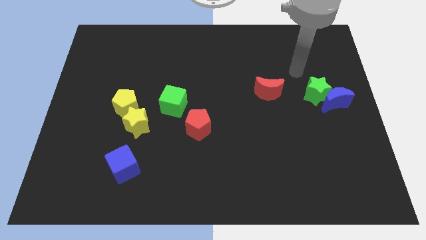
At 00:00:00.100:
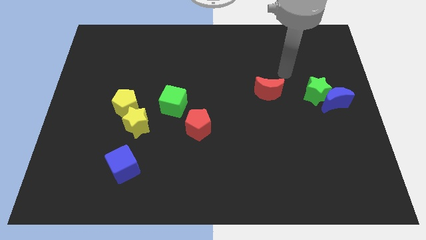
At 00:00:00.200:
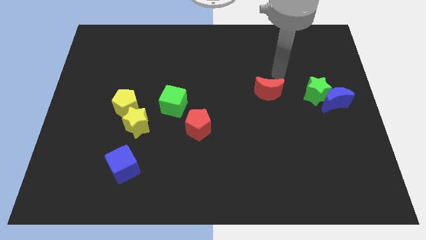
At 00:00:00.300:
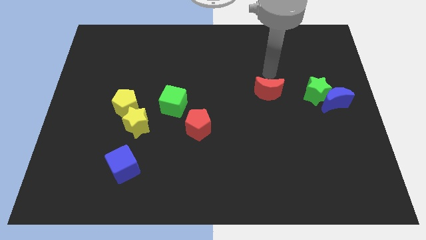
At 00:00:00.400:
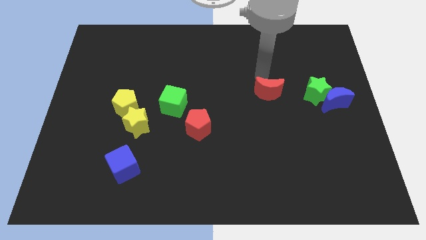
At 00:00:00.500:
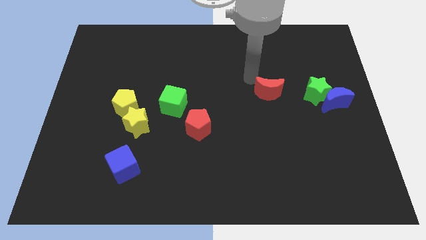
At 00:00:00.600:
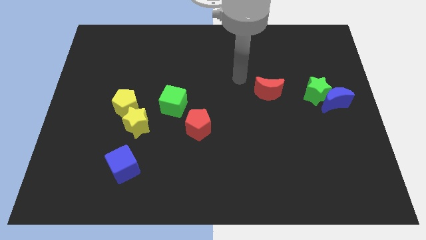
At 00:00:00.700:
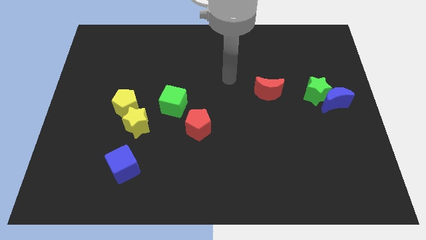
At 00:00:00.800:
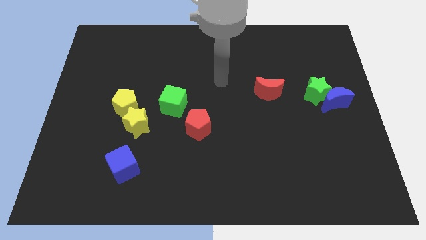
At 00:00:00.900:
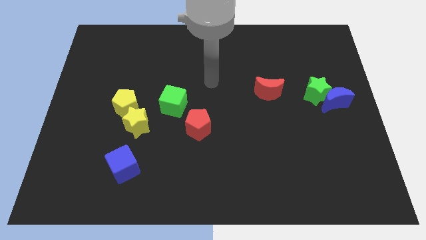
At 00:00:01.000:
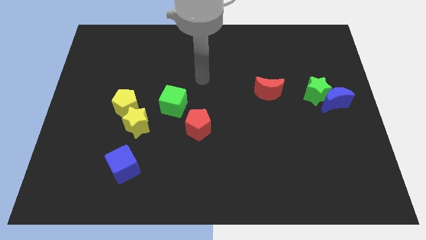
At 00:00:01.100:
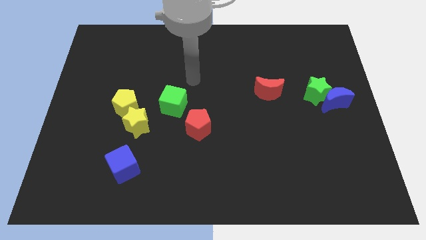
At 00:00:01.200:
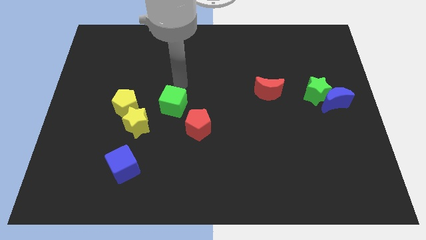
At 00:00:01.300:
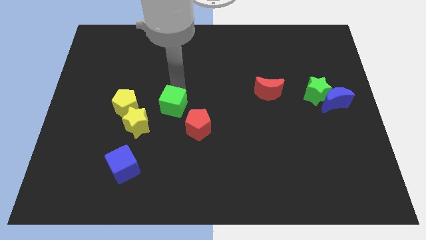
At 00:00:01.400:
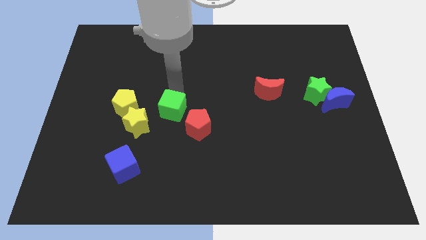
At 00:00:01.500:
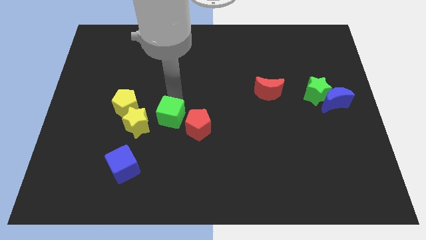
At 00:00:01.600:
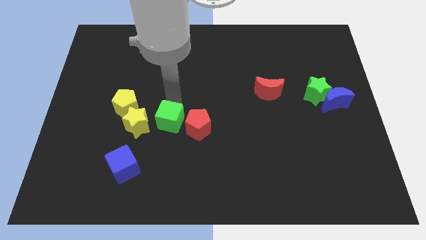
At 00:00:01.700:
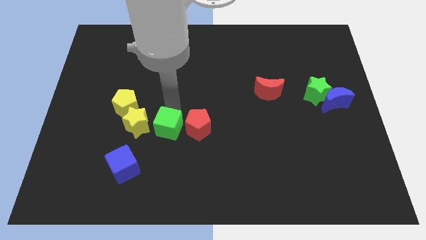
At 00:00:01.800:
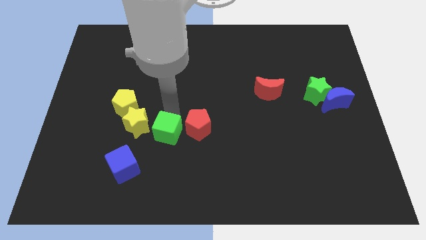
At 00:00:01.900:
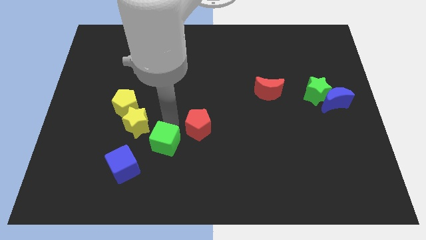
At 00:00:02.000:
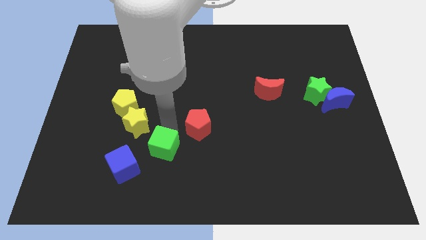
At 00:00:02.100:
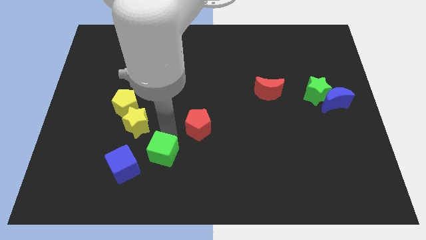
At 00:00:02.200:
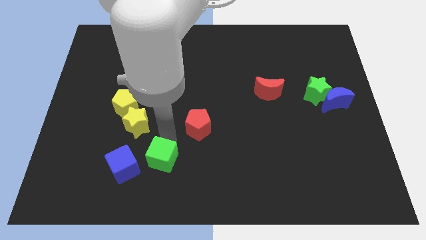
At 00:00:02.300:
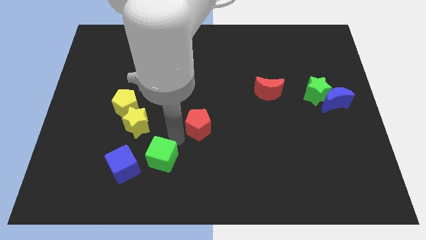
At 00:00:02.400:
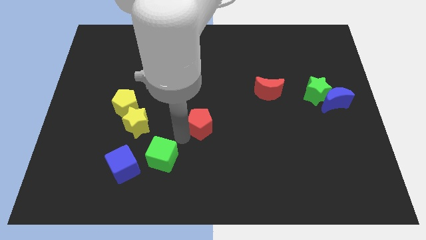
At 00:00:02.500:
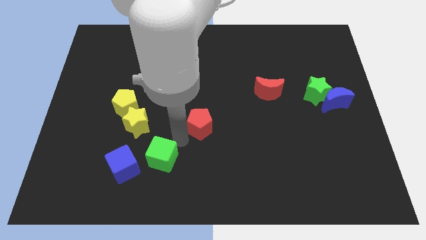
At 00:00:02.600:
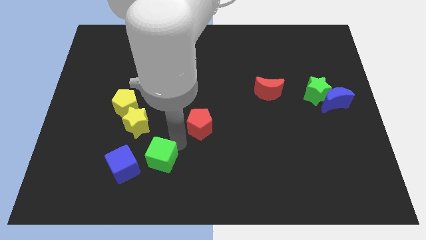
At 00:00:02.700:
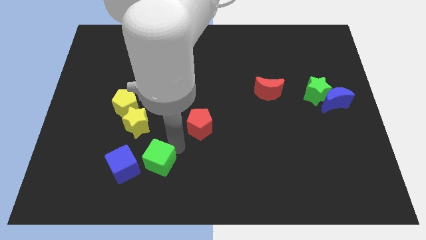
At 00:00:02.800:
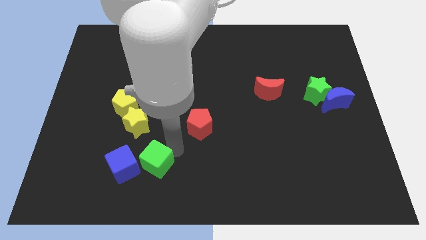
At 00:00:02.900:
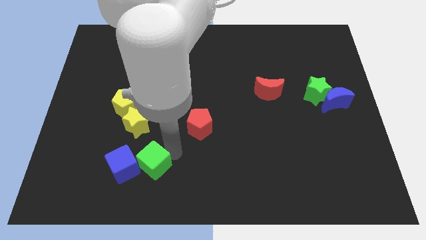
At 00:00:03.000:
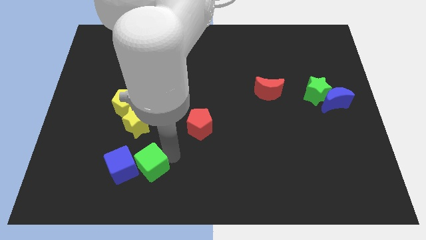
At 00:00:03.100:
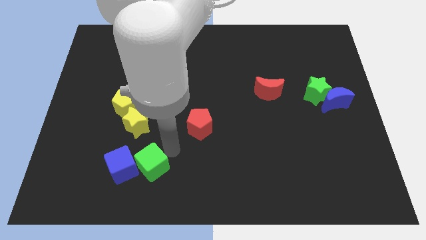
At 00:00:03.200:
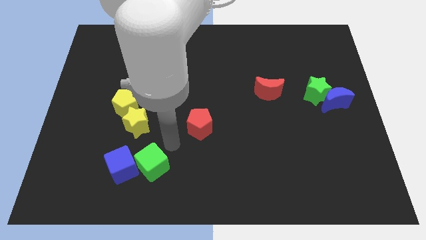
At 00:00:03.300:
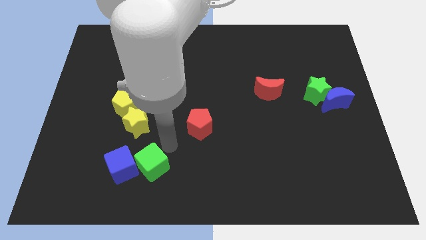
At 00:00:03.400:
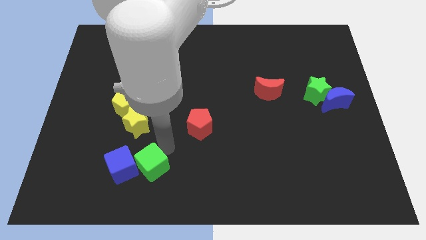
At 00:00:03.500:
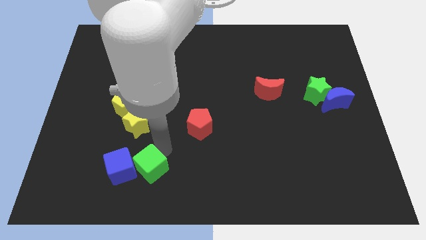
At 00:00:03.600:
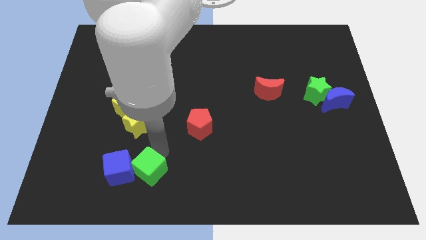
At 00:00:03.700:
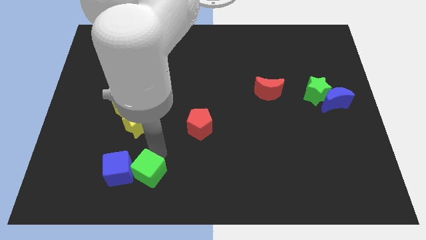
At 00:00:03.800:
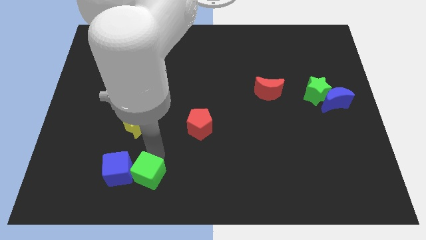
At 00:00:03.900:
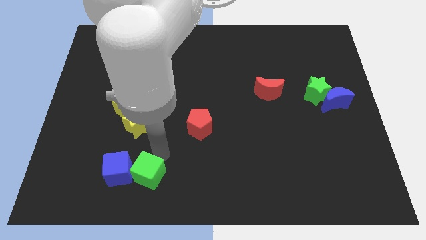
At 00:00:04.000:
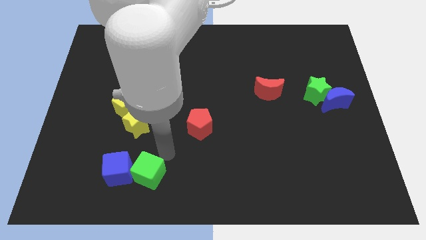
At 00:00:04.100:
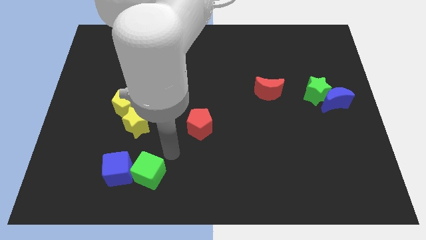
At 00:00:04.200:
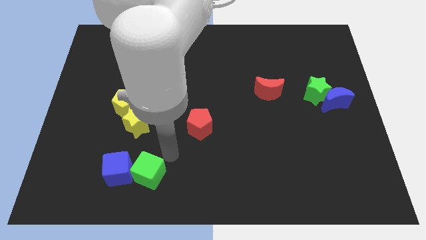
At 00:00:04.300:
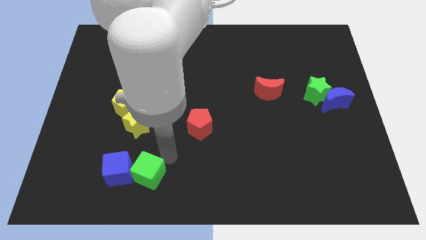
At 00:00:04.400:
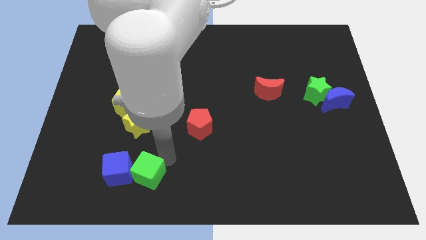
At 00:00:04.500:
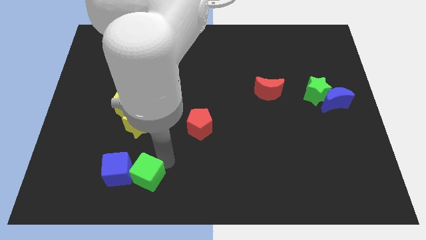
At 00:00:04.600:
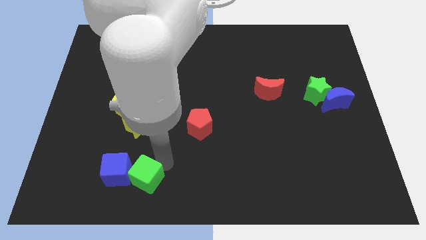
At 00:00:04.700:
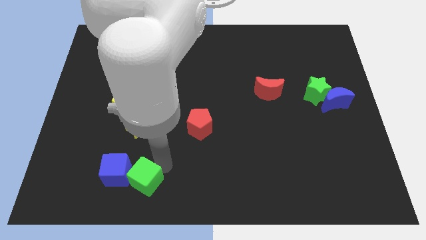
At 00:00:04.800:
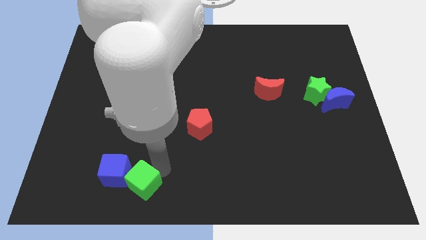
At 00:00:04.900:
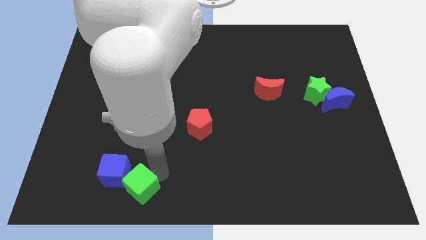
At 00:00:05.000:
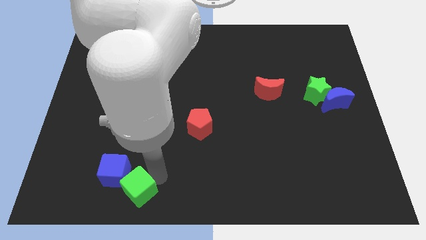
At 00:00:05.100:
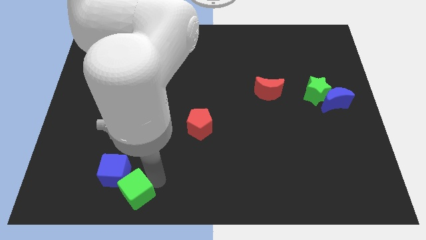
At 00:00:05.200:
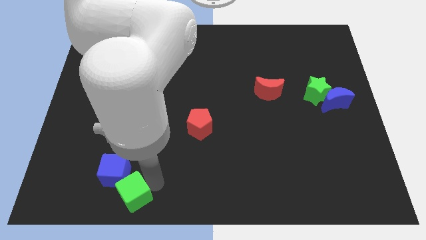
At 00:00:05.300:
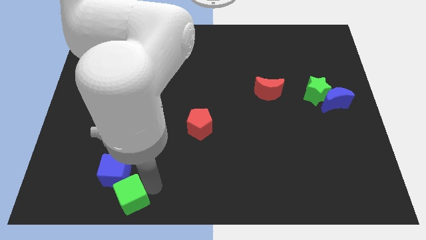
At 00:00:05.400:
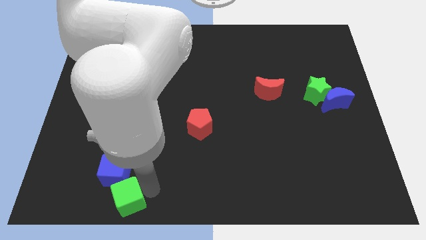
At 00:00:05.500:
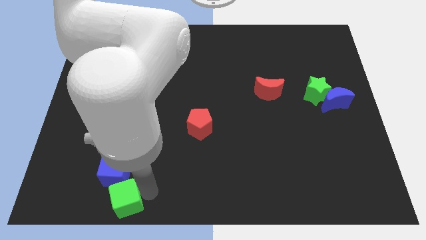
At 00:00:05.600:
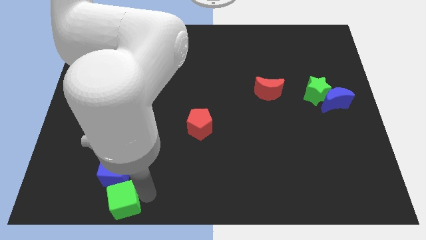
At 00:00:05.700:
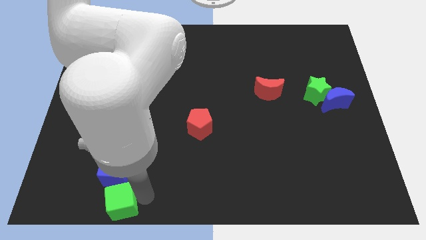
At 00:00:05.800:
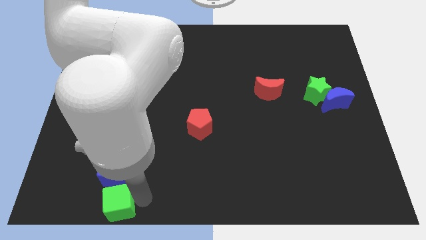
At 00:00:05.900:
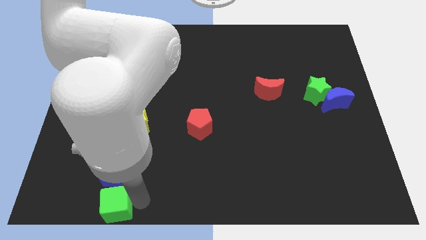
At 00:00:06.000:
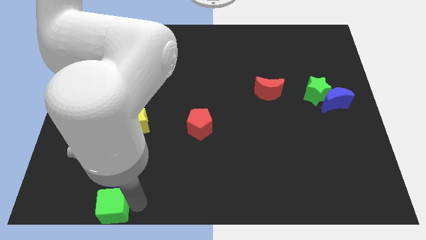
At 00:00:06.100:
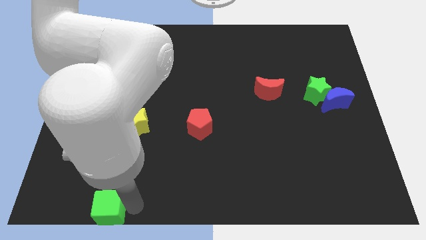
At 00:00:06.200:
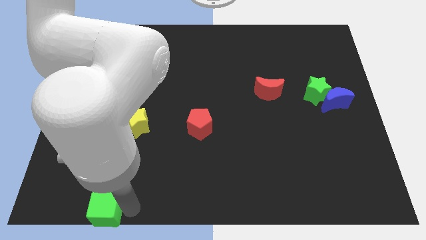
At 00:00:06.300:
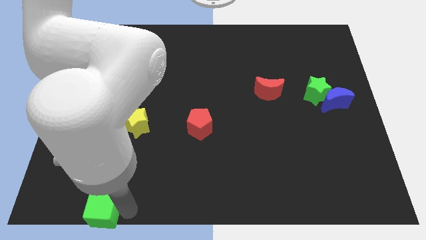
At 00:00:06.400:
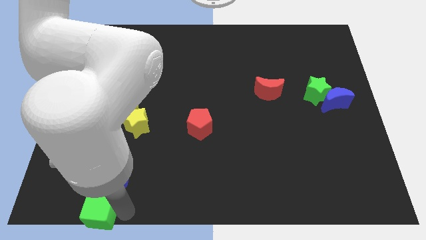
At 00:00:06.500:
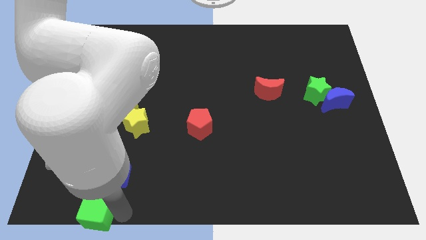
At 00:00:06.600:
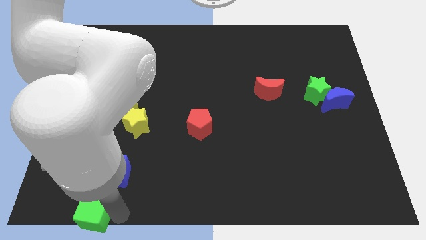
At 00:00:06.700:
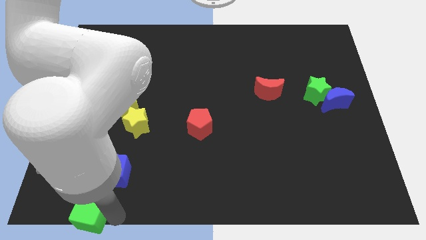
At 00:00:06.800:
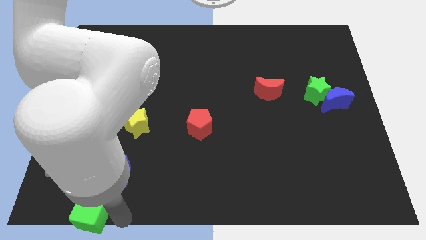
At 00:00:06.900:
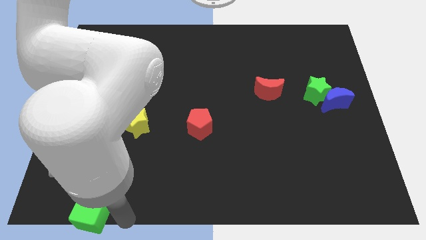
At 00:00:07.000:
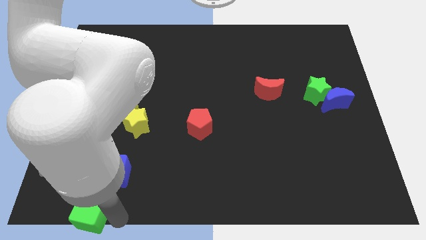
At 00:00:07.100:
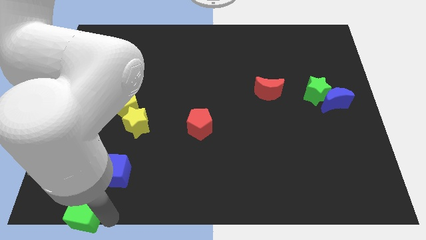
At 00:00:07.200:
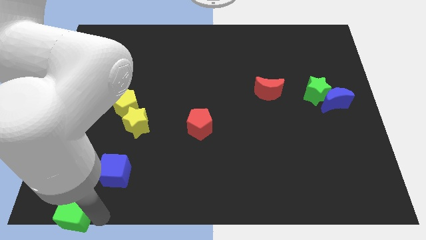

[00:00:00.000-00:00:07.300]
slide the green cube to the lower left corner
